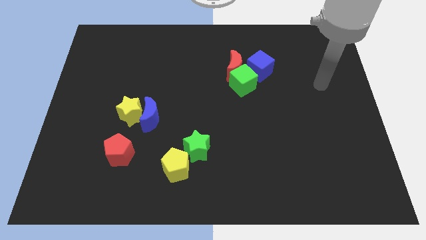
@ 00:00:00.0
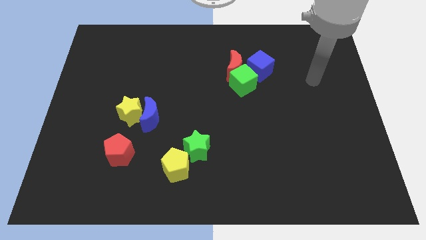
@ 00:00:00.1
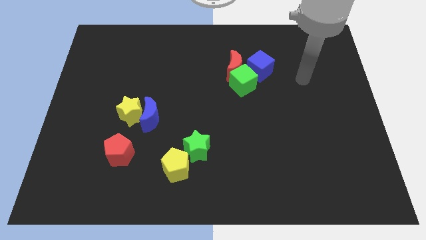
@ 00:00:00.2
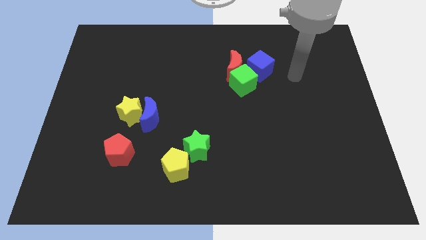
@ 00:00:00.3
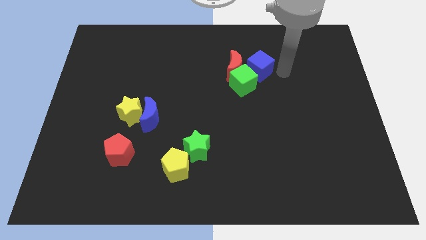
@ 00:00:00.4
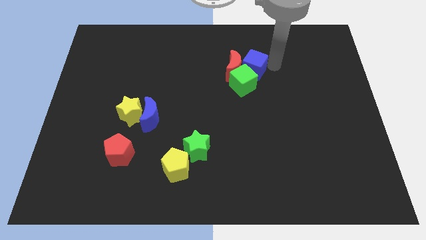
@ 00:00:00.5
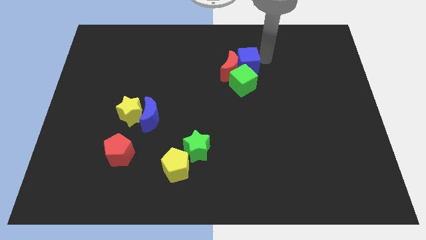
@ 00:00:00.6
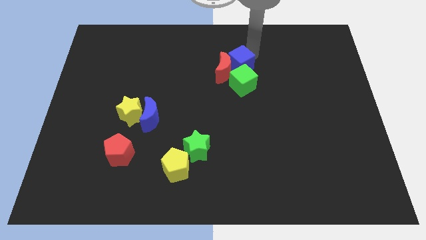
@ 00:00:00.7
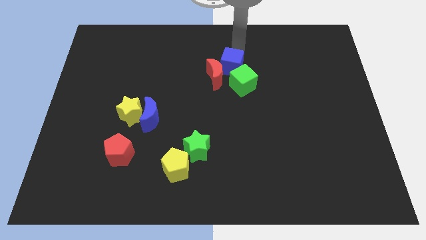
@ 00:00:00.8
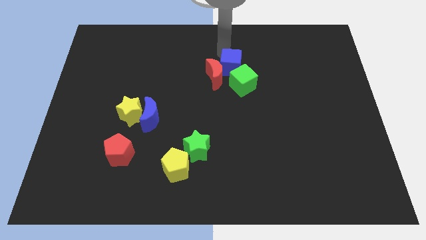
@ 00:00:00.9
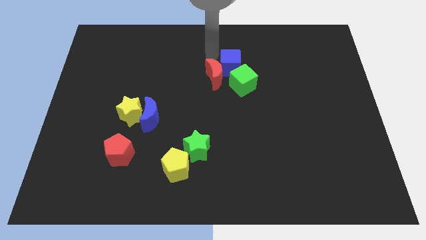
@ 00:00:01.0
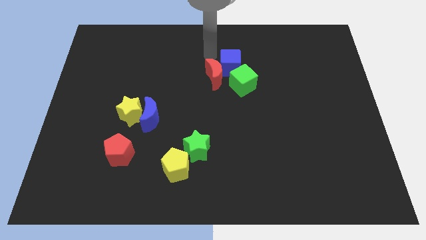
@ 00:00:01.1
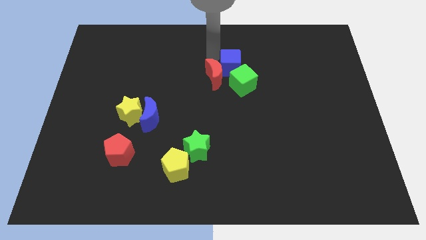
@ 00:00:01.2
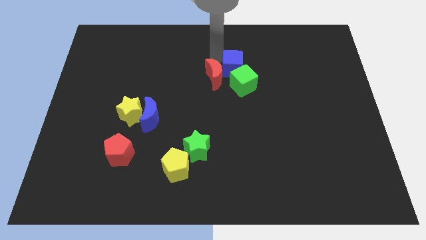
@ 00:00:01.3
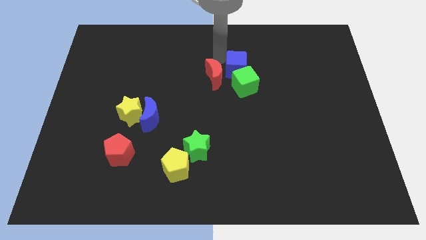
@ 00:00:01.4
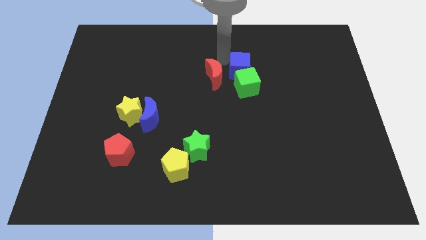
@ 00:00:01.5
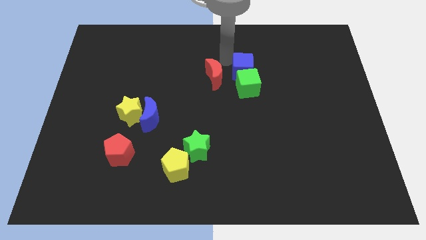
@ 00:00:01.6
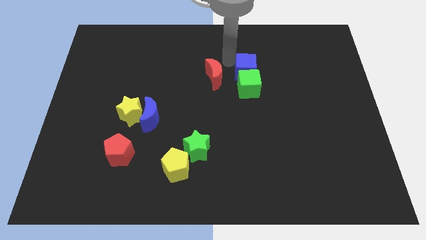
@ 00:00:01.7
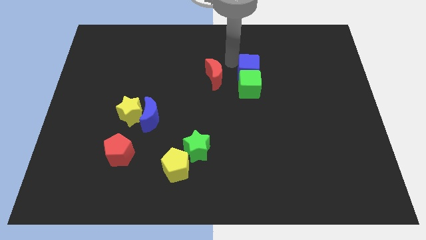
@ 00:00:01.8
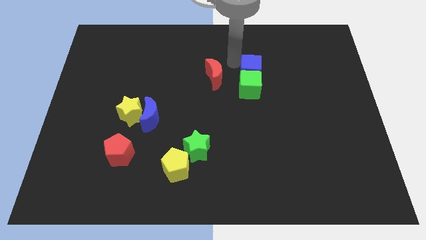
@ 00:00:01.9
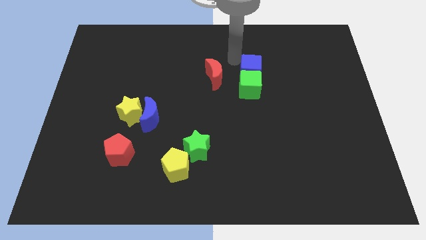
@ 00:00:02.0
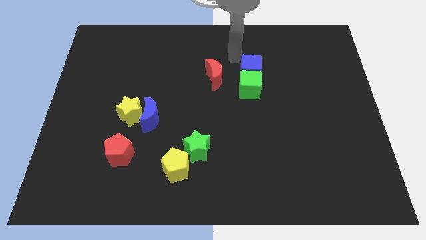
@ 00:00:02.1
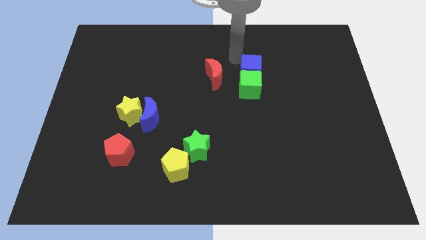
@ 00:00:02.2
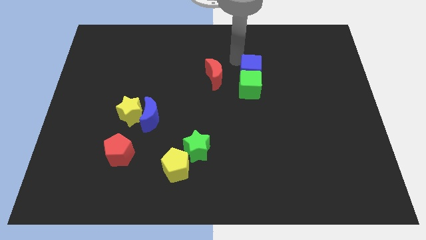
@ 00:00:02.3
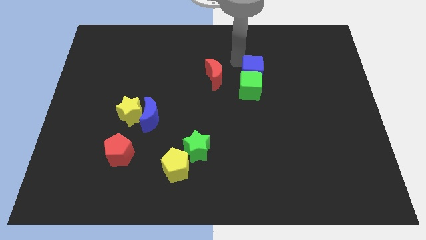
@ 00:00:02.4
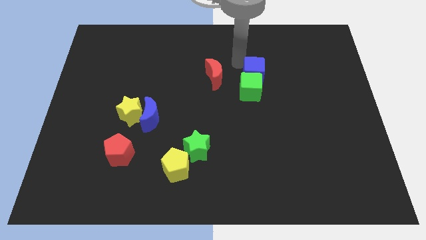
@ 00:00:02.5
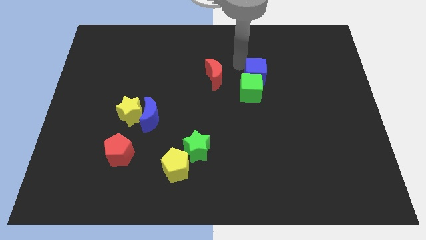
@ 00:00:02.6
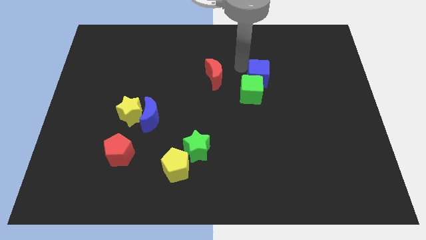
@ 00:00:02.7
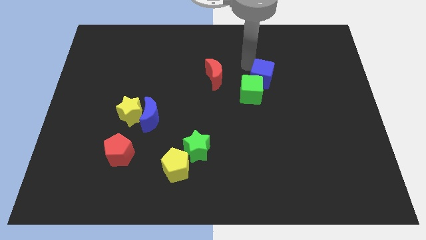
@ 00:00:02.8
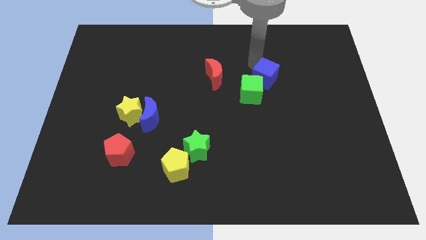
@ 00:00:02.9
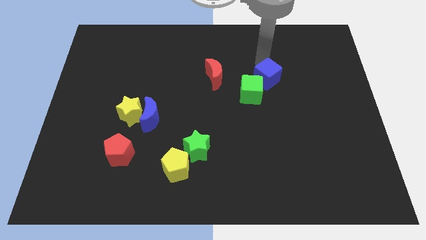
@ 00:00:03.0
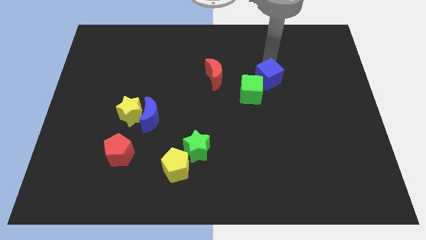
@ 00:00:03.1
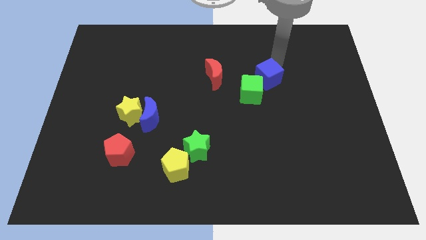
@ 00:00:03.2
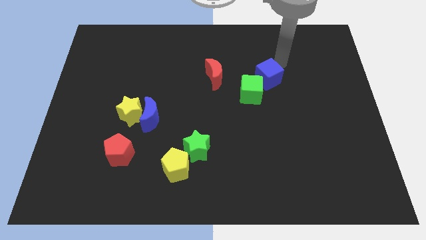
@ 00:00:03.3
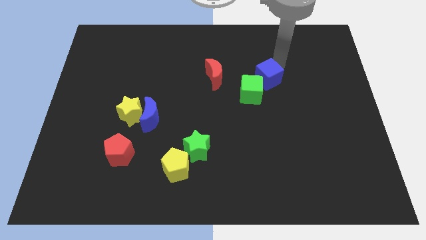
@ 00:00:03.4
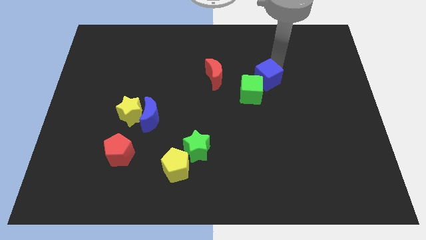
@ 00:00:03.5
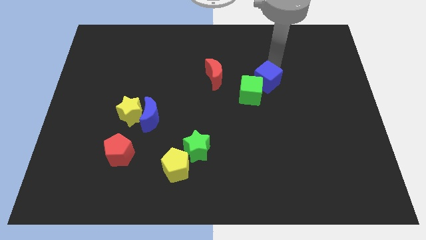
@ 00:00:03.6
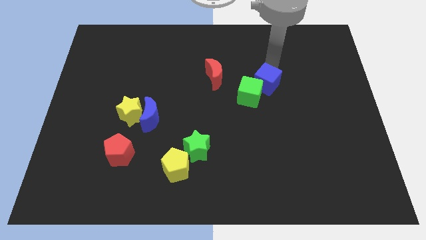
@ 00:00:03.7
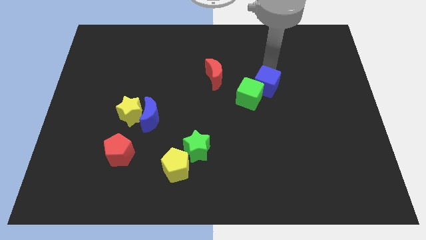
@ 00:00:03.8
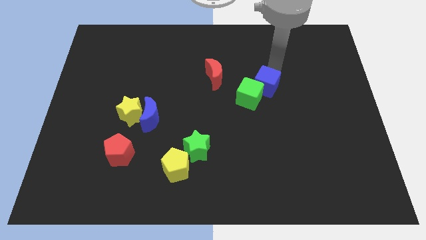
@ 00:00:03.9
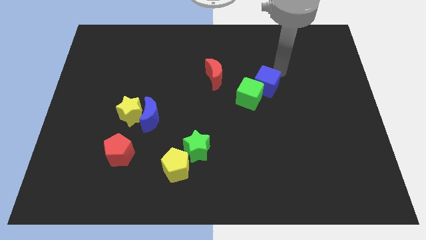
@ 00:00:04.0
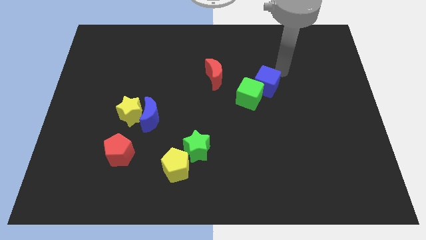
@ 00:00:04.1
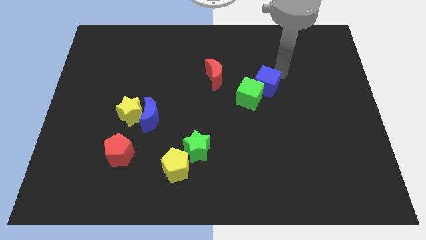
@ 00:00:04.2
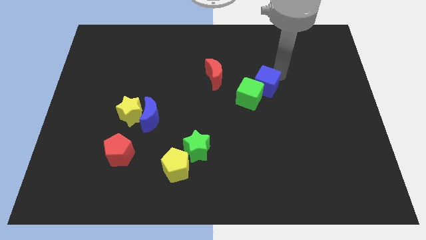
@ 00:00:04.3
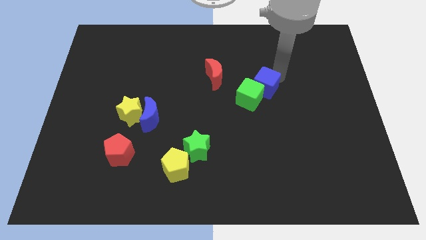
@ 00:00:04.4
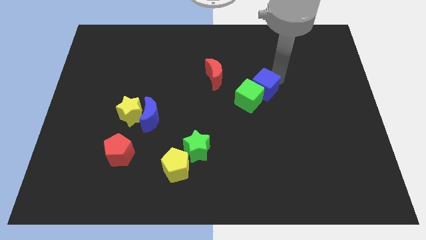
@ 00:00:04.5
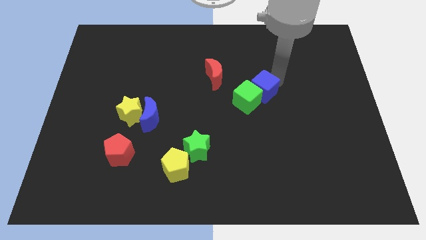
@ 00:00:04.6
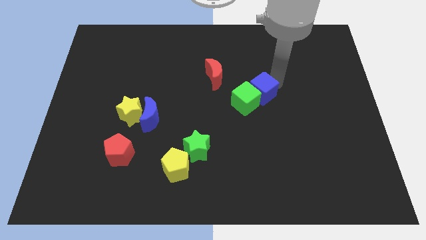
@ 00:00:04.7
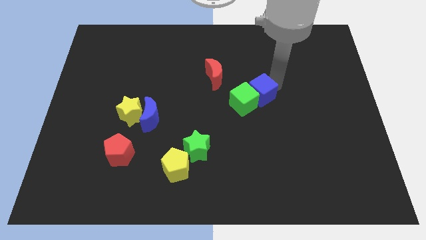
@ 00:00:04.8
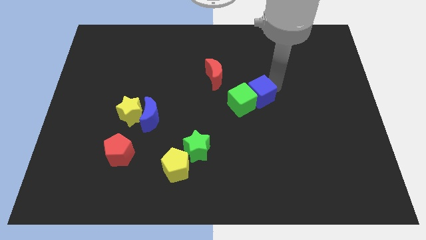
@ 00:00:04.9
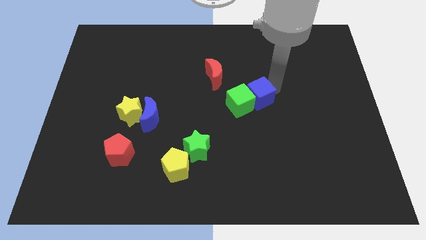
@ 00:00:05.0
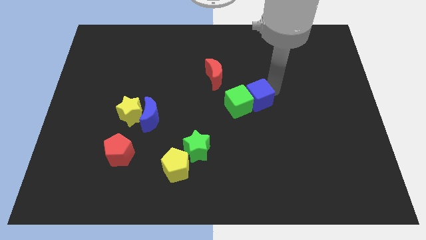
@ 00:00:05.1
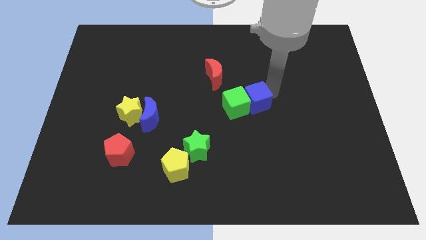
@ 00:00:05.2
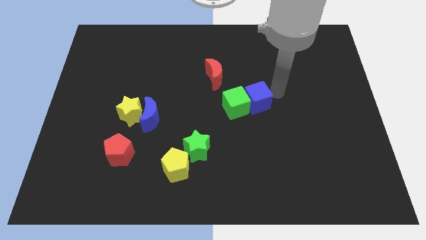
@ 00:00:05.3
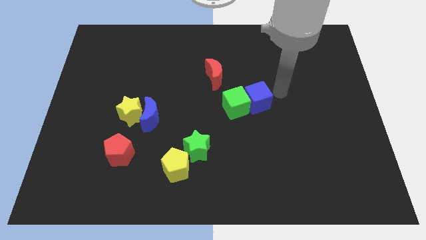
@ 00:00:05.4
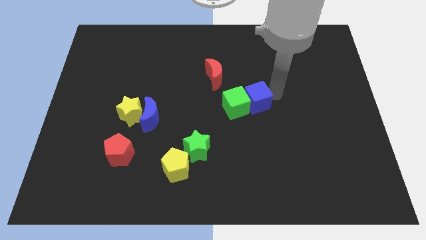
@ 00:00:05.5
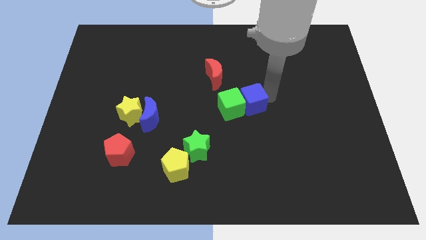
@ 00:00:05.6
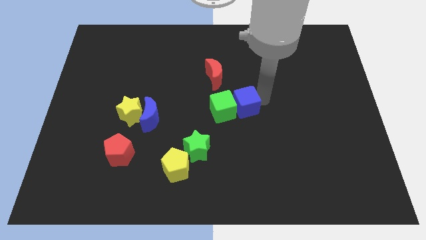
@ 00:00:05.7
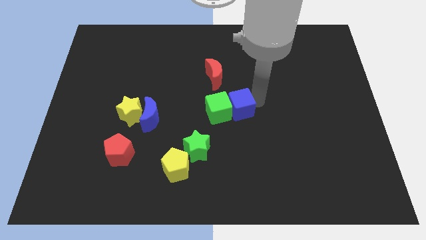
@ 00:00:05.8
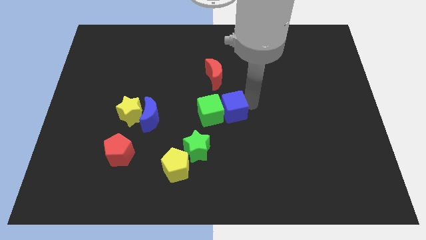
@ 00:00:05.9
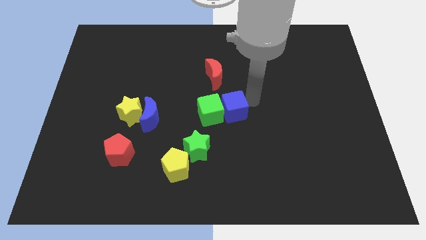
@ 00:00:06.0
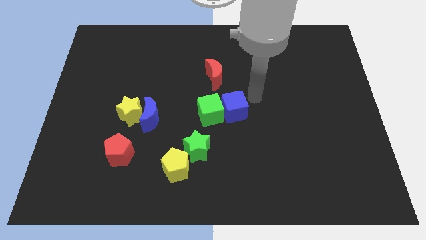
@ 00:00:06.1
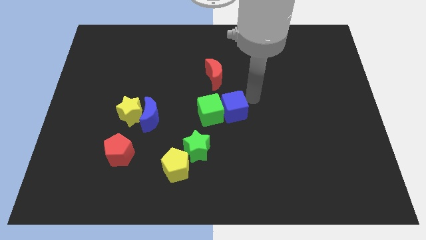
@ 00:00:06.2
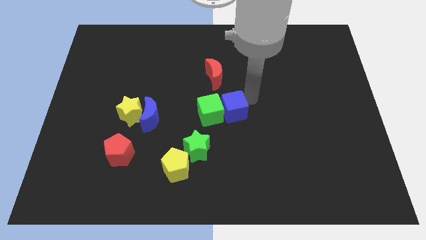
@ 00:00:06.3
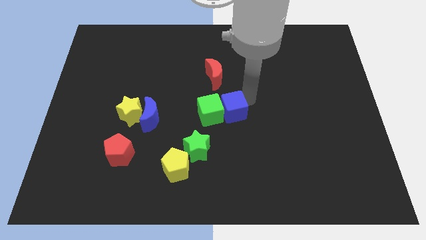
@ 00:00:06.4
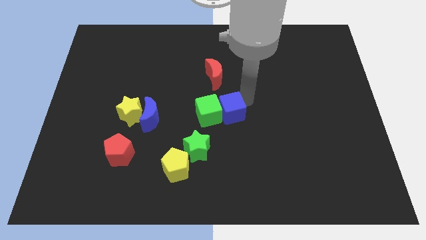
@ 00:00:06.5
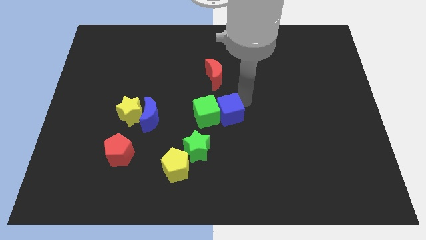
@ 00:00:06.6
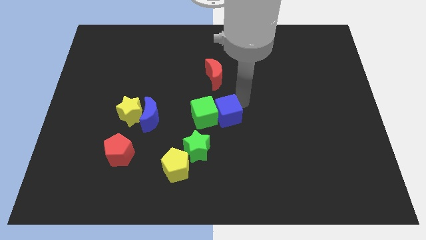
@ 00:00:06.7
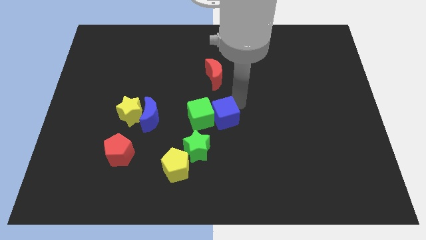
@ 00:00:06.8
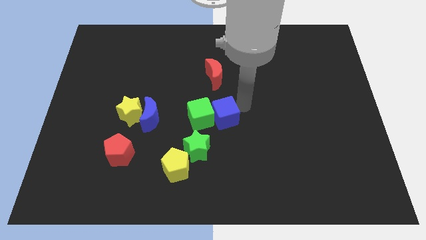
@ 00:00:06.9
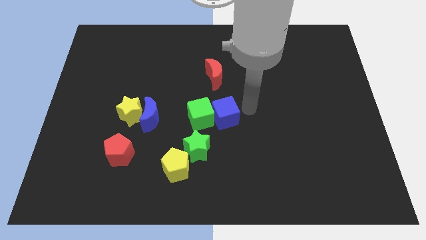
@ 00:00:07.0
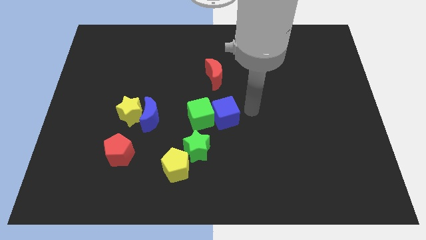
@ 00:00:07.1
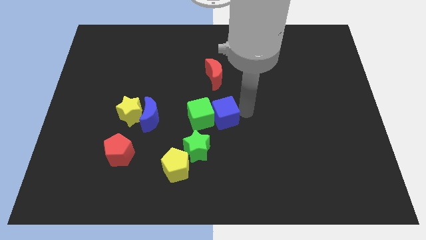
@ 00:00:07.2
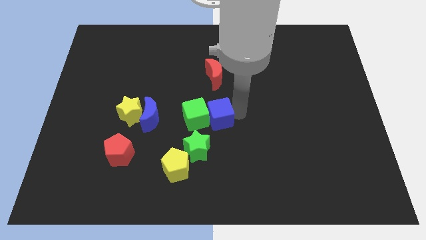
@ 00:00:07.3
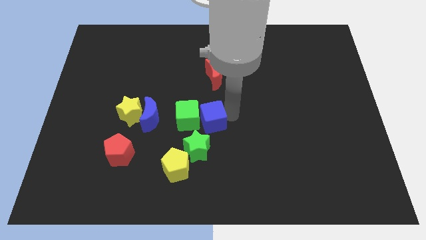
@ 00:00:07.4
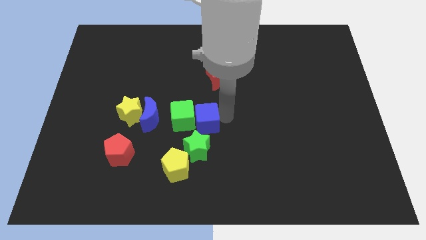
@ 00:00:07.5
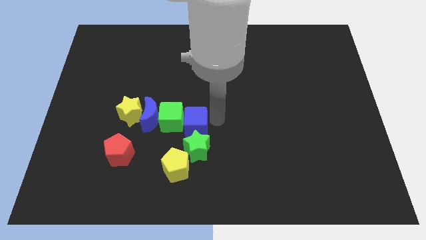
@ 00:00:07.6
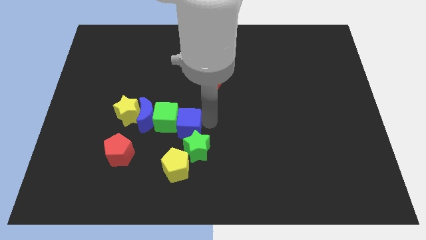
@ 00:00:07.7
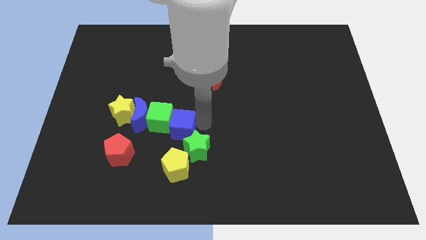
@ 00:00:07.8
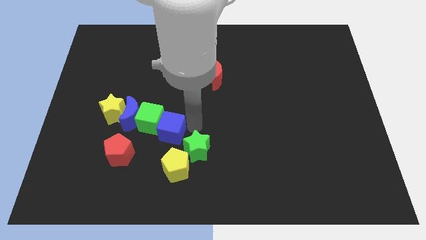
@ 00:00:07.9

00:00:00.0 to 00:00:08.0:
push the blue cube to the top right of the red pentagon
